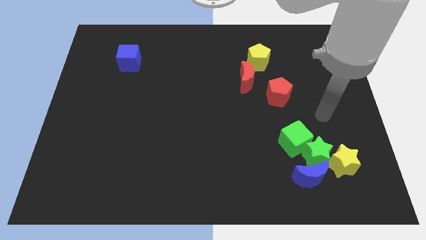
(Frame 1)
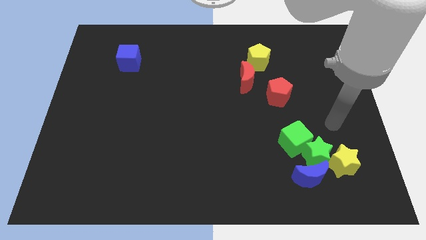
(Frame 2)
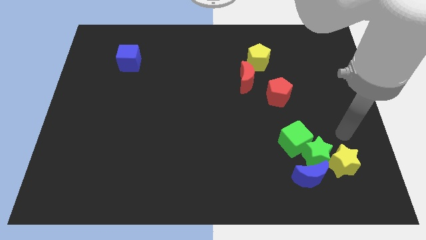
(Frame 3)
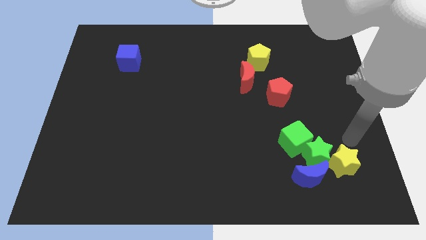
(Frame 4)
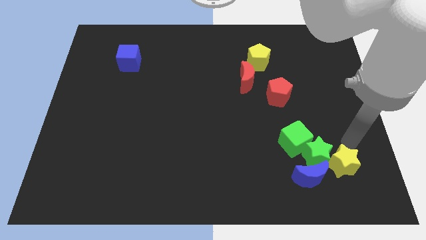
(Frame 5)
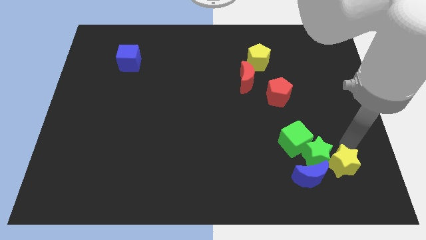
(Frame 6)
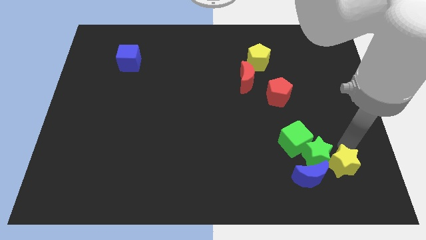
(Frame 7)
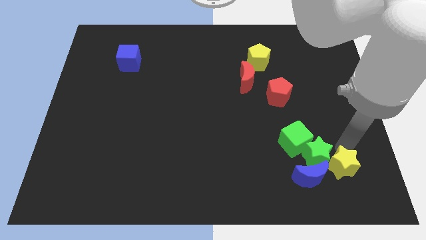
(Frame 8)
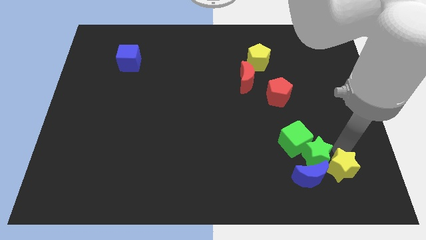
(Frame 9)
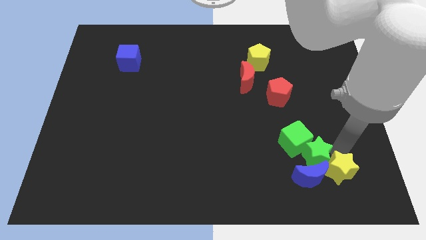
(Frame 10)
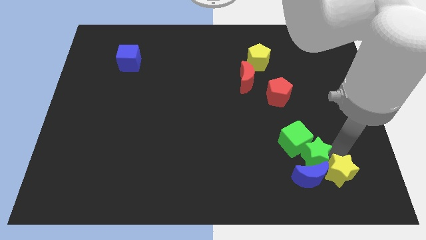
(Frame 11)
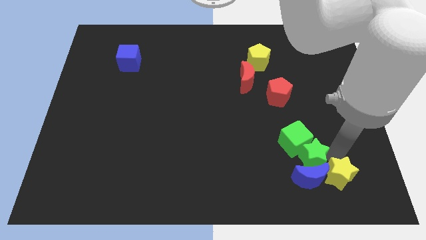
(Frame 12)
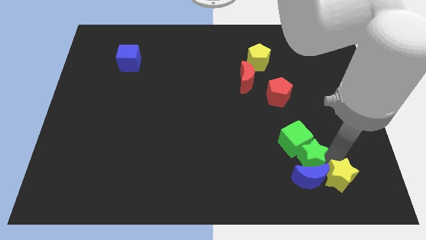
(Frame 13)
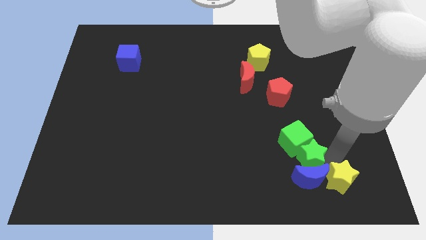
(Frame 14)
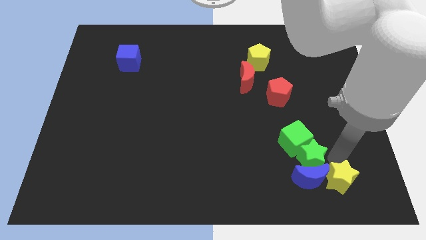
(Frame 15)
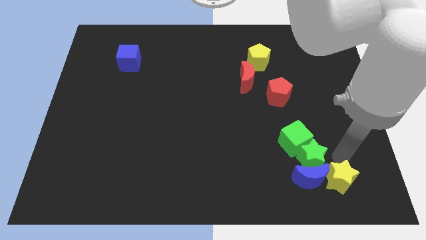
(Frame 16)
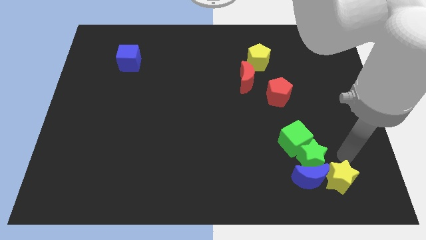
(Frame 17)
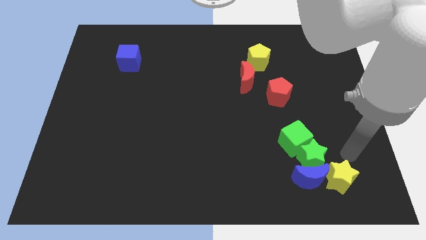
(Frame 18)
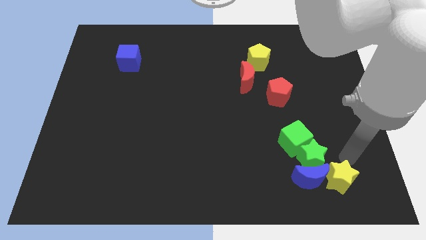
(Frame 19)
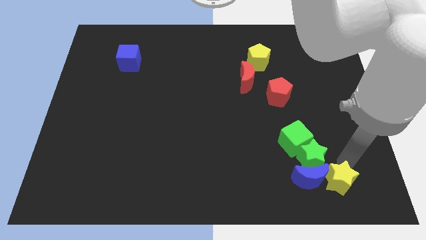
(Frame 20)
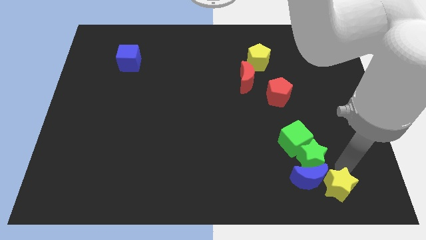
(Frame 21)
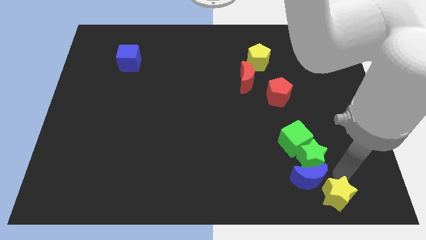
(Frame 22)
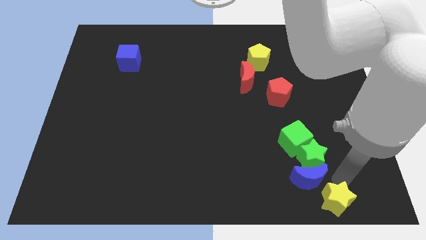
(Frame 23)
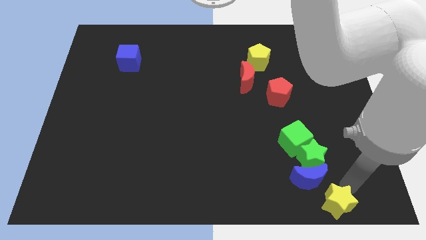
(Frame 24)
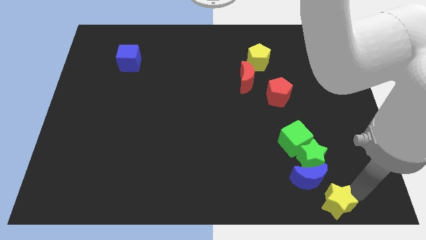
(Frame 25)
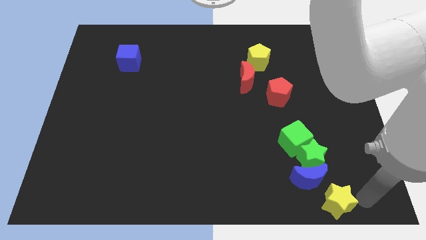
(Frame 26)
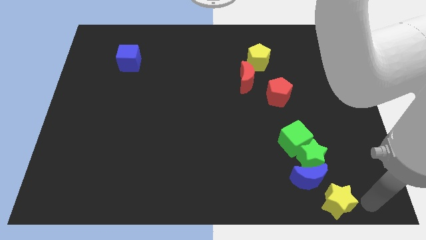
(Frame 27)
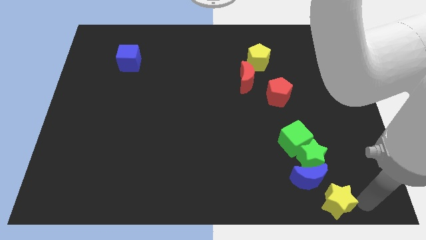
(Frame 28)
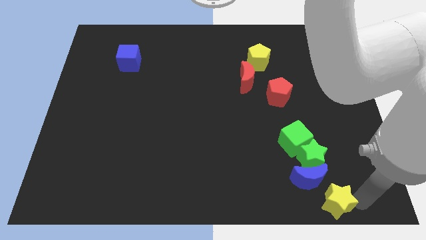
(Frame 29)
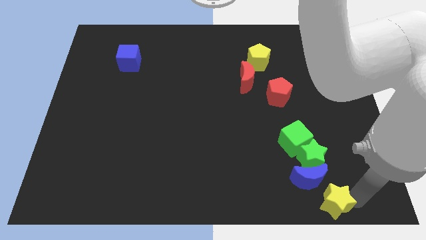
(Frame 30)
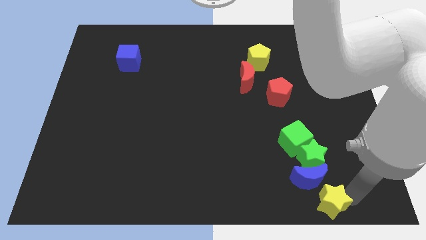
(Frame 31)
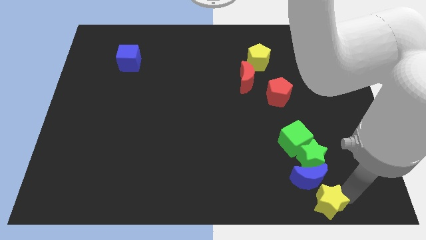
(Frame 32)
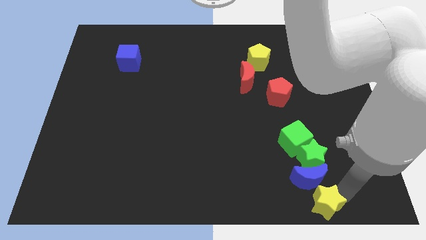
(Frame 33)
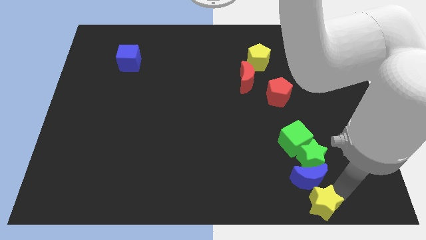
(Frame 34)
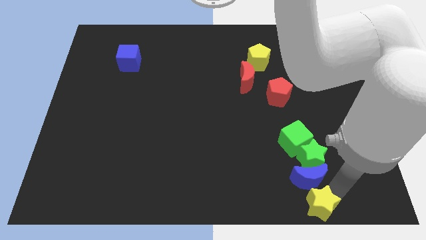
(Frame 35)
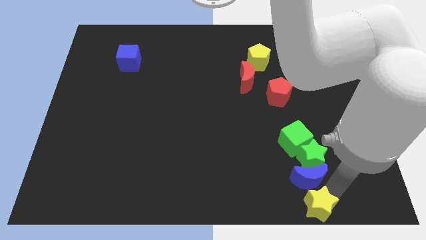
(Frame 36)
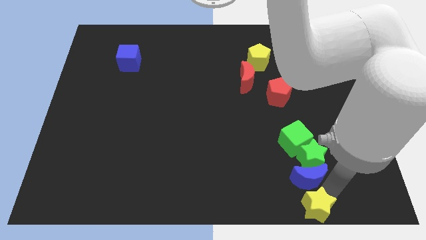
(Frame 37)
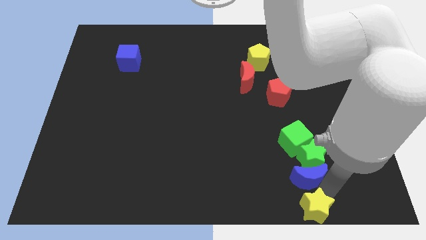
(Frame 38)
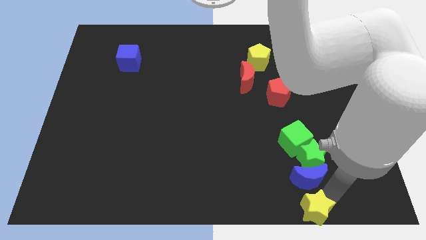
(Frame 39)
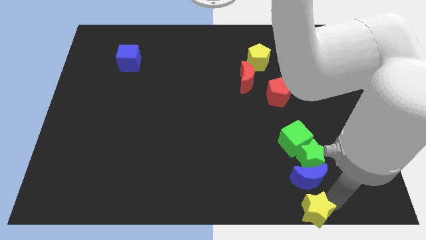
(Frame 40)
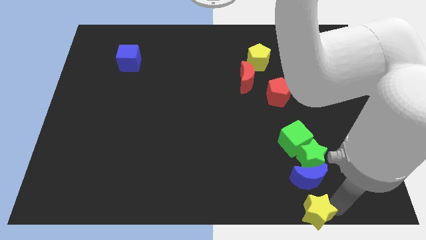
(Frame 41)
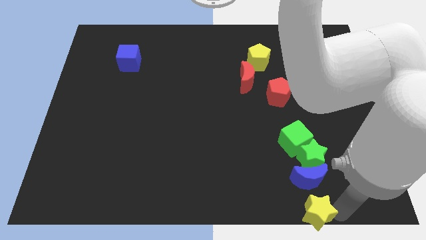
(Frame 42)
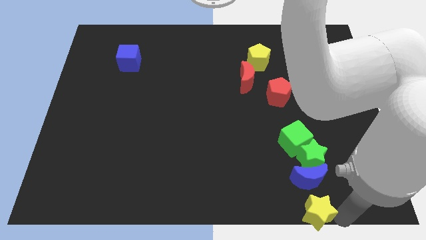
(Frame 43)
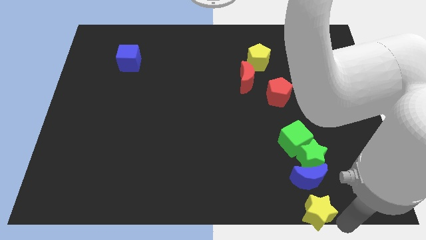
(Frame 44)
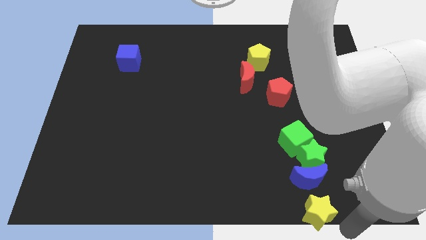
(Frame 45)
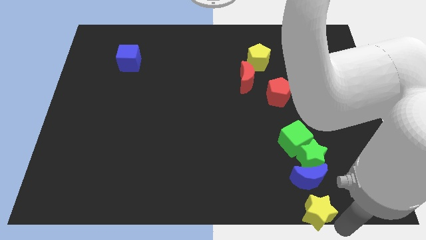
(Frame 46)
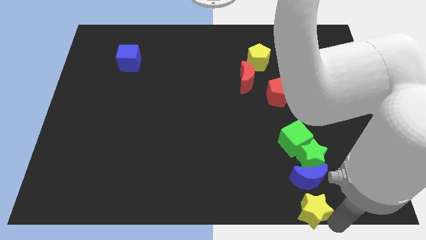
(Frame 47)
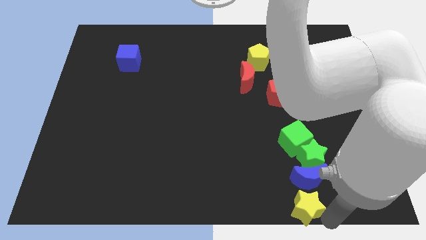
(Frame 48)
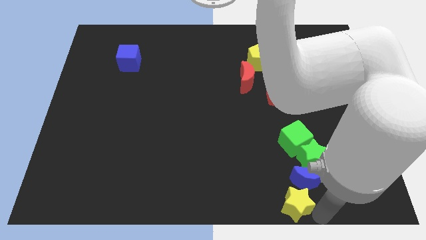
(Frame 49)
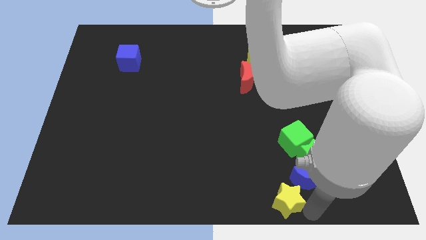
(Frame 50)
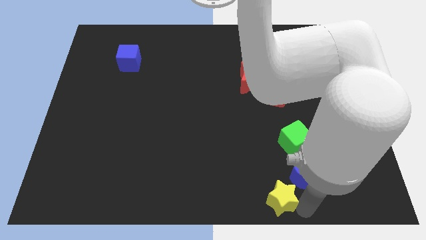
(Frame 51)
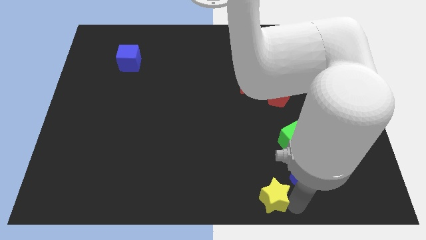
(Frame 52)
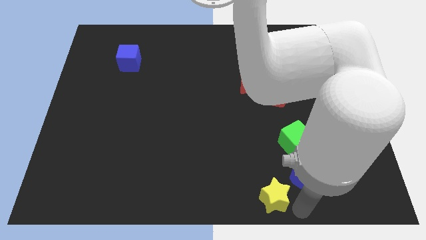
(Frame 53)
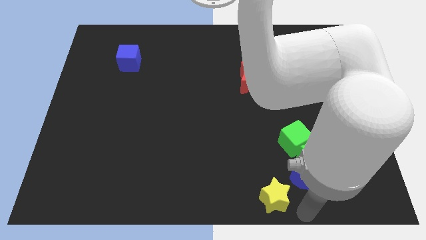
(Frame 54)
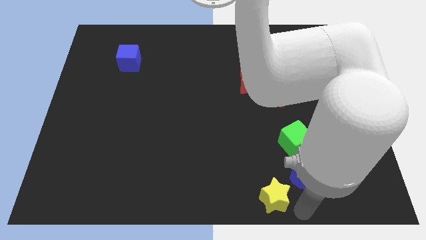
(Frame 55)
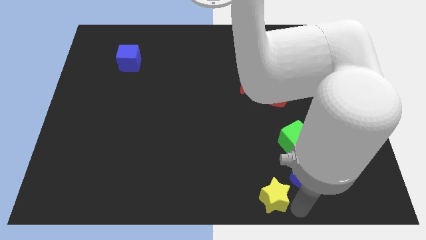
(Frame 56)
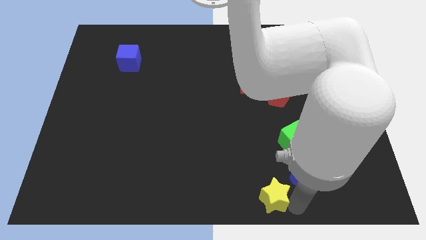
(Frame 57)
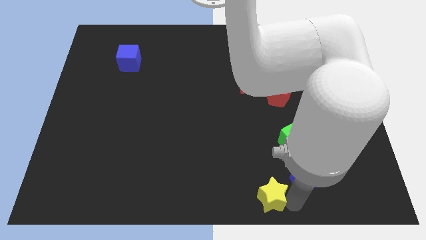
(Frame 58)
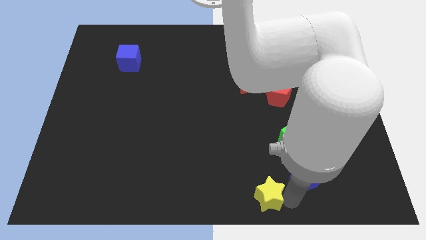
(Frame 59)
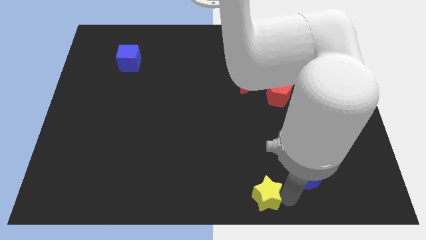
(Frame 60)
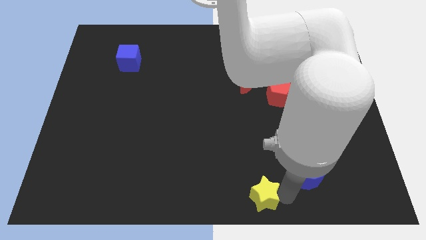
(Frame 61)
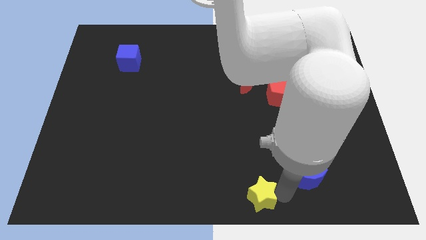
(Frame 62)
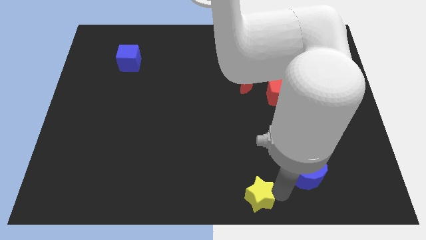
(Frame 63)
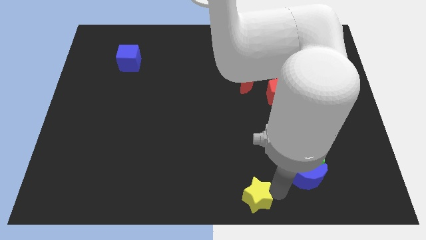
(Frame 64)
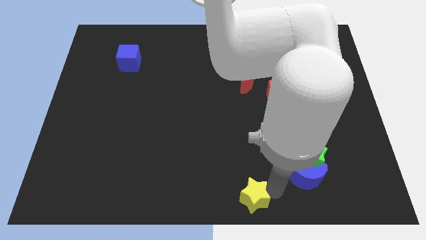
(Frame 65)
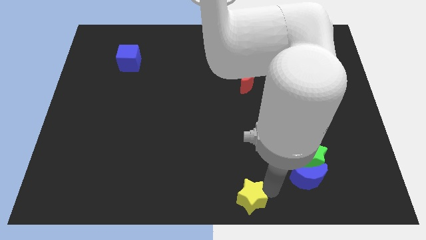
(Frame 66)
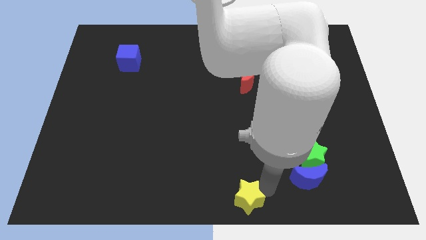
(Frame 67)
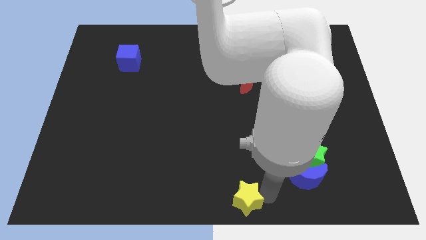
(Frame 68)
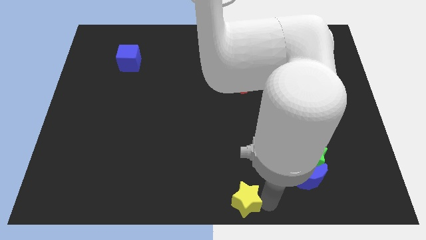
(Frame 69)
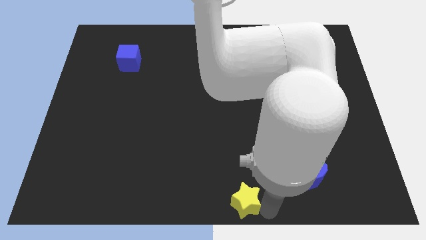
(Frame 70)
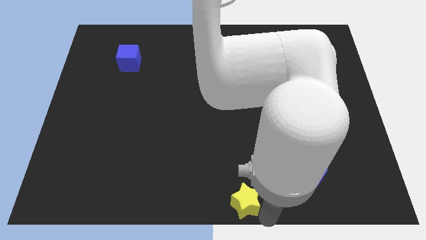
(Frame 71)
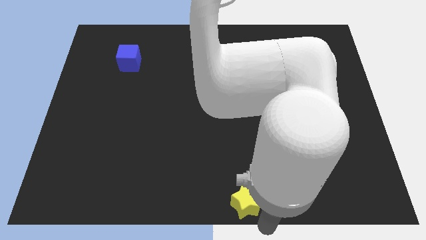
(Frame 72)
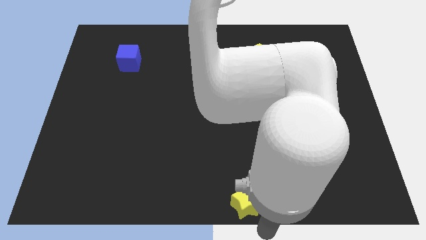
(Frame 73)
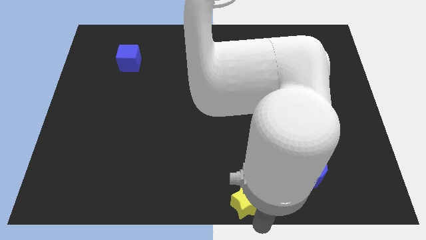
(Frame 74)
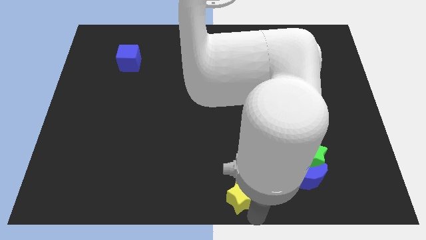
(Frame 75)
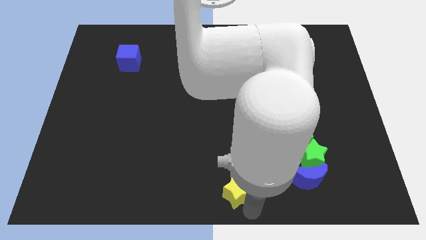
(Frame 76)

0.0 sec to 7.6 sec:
slide the yellow star to the left

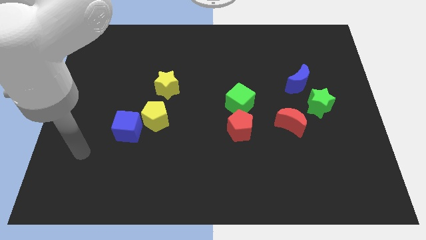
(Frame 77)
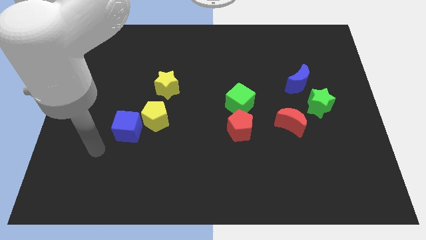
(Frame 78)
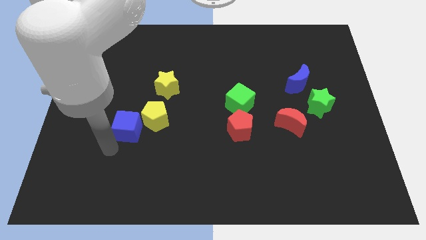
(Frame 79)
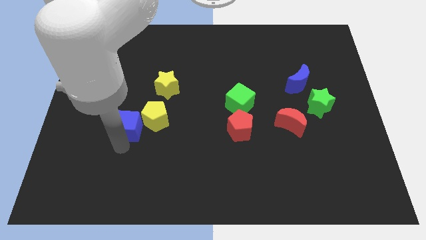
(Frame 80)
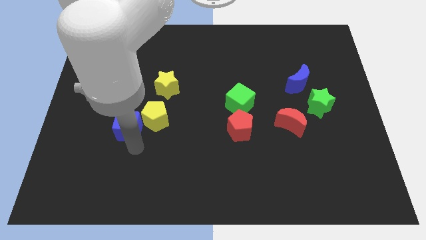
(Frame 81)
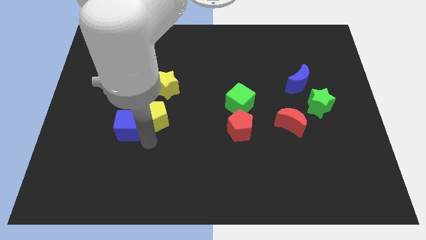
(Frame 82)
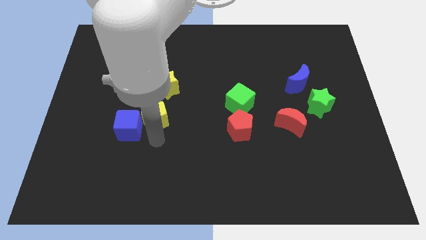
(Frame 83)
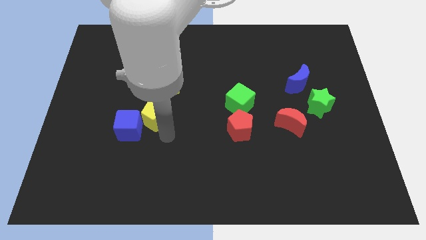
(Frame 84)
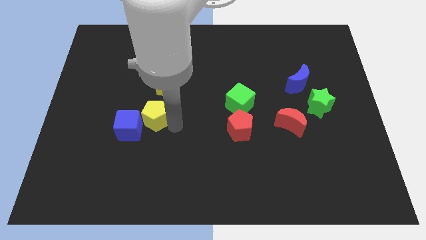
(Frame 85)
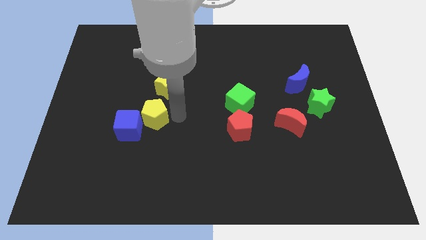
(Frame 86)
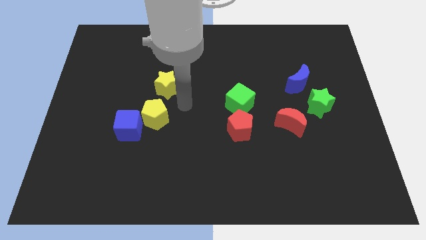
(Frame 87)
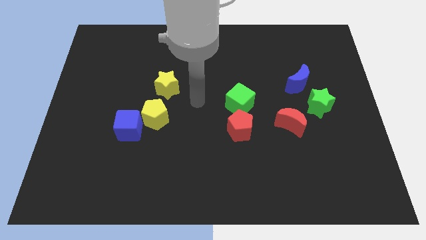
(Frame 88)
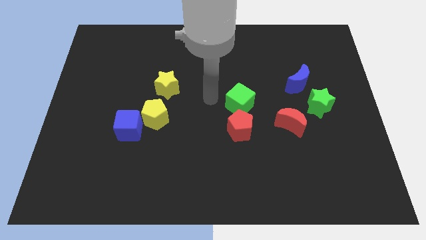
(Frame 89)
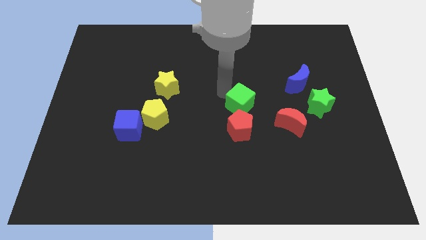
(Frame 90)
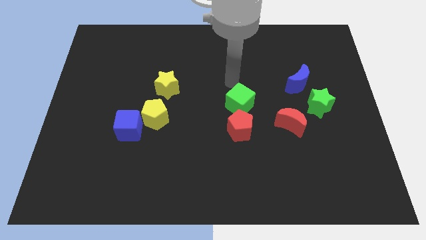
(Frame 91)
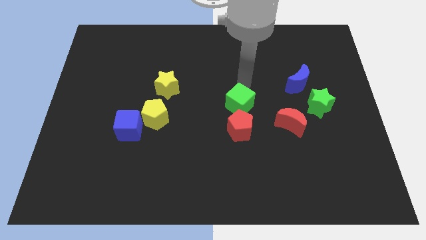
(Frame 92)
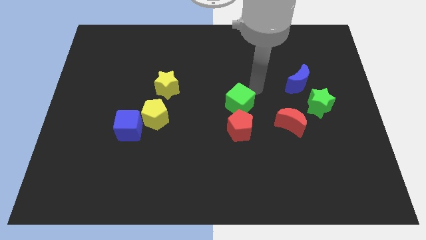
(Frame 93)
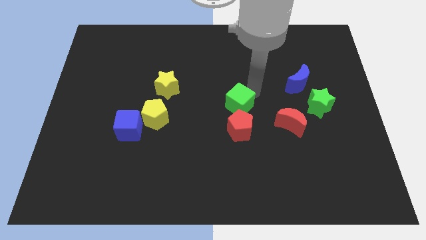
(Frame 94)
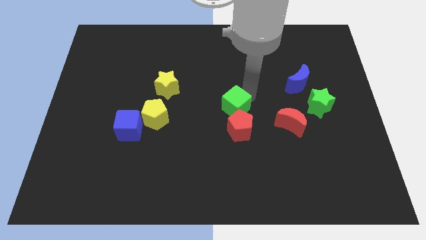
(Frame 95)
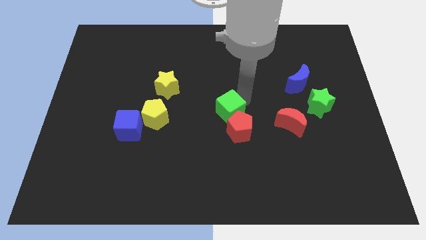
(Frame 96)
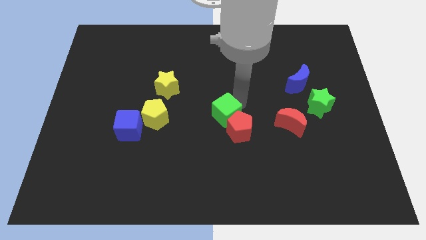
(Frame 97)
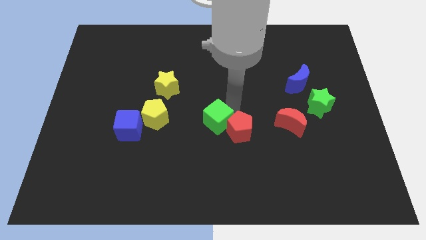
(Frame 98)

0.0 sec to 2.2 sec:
move the green cube somewhat down and then left
